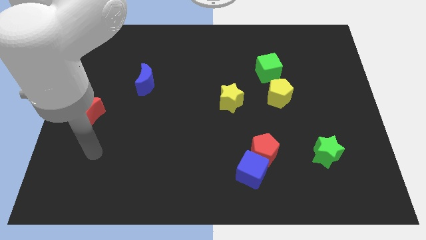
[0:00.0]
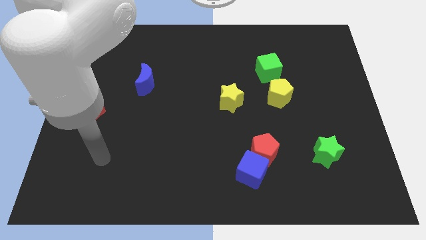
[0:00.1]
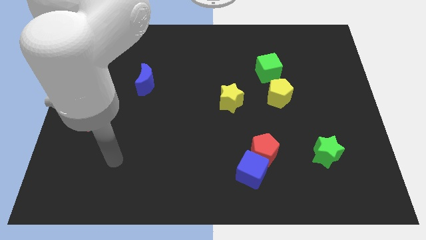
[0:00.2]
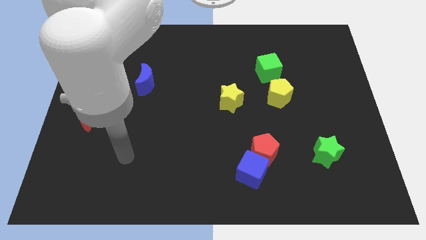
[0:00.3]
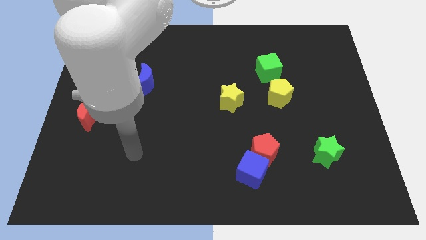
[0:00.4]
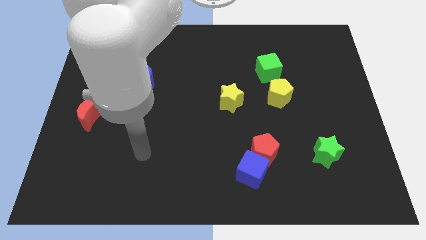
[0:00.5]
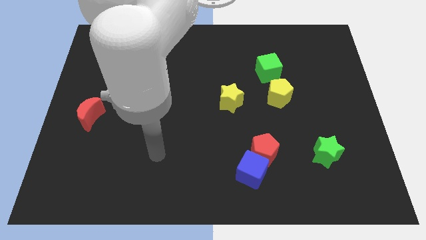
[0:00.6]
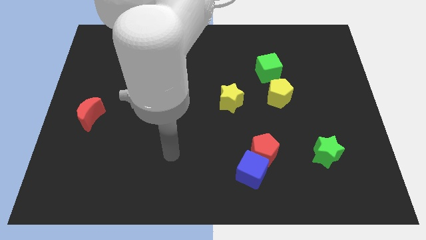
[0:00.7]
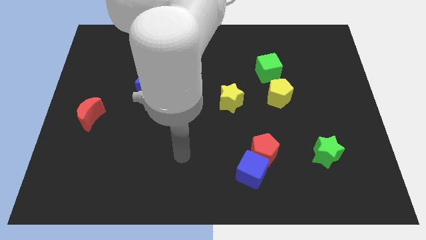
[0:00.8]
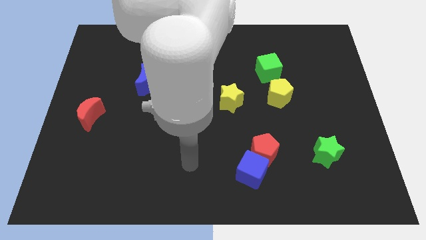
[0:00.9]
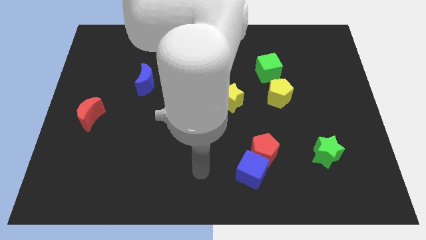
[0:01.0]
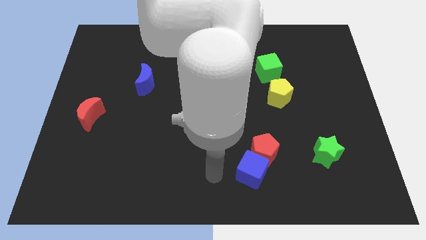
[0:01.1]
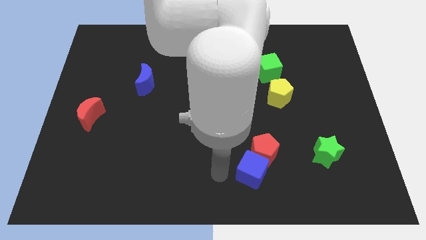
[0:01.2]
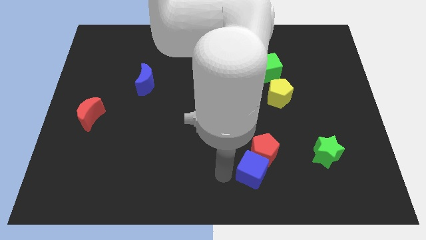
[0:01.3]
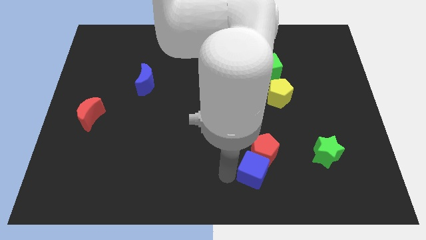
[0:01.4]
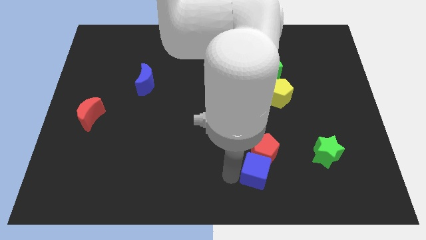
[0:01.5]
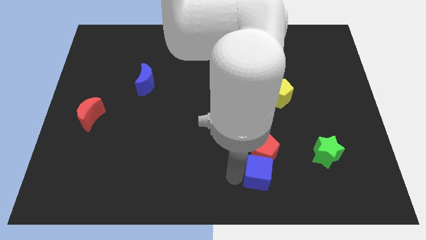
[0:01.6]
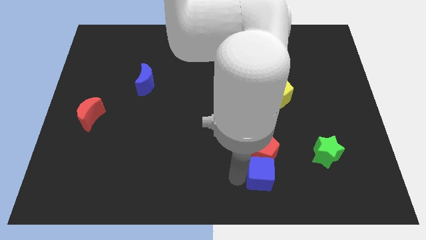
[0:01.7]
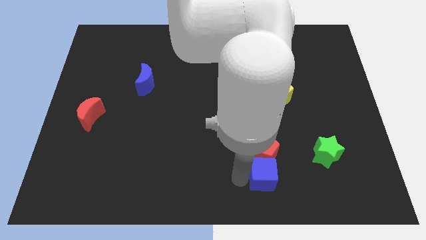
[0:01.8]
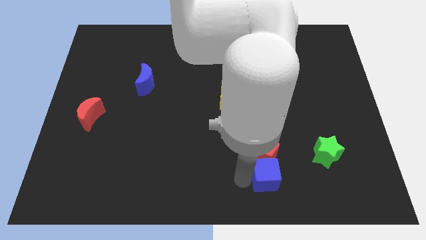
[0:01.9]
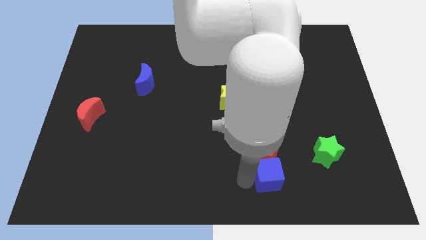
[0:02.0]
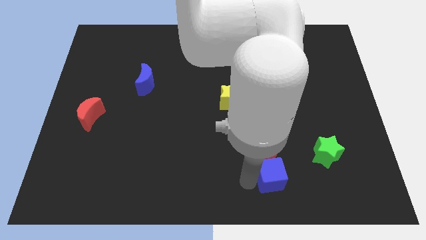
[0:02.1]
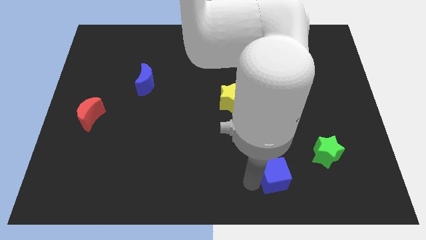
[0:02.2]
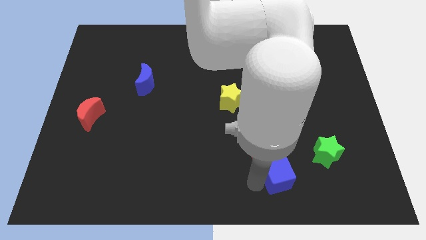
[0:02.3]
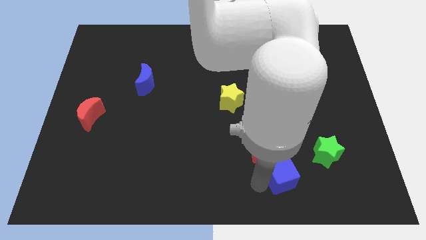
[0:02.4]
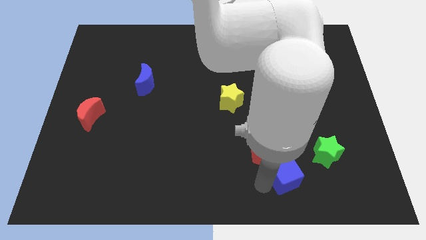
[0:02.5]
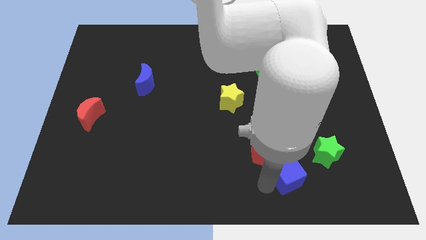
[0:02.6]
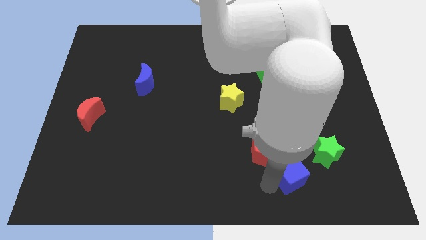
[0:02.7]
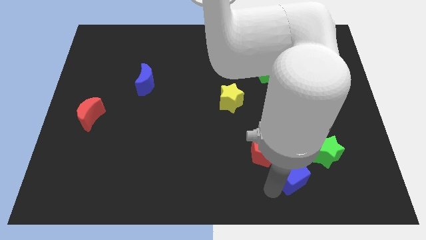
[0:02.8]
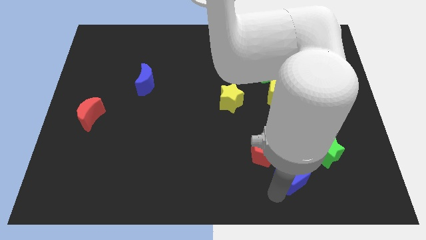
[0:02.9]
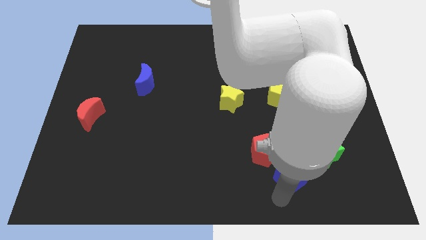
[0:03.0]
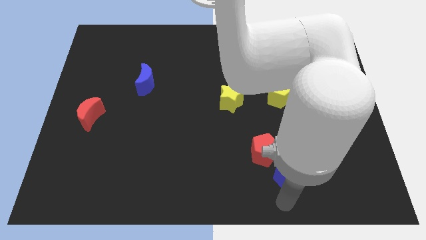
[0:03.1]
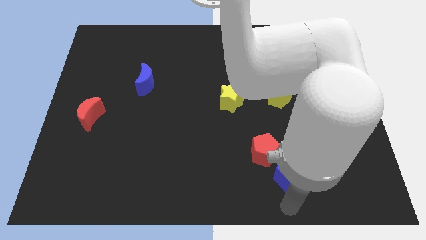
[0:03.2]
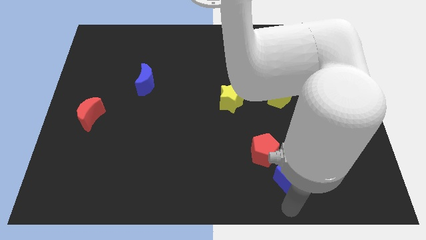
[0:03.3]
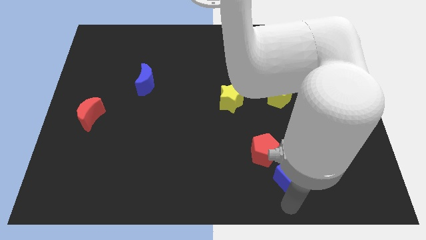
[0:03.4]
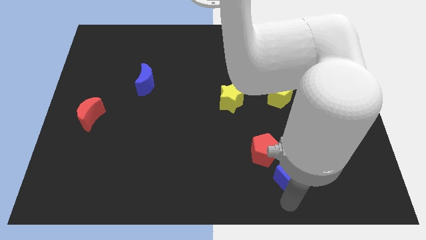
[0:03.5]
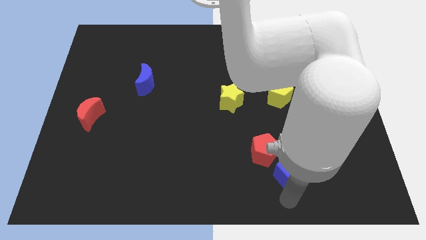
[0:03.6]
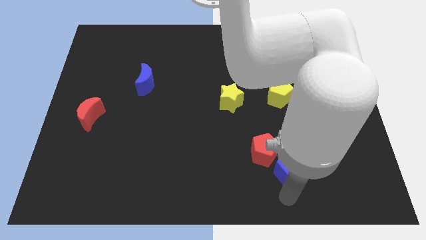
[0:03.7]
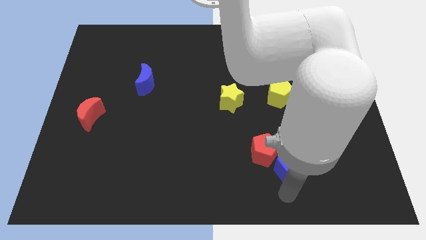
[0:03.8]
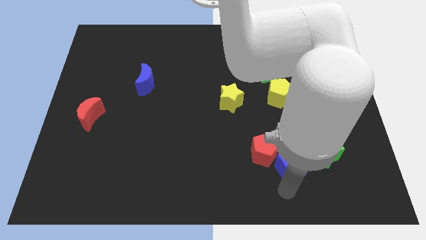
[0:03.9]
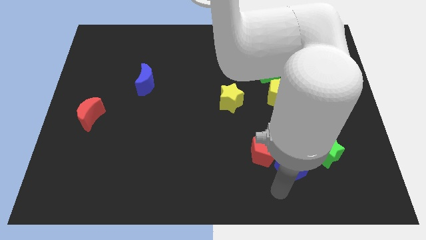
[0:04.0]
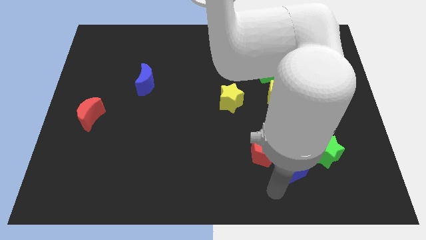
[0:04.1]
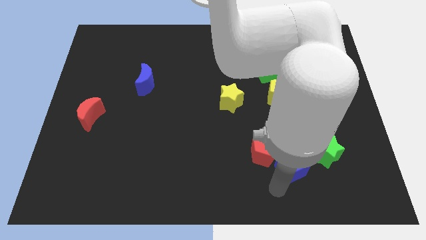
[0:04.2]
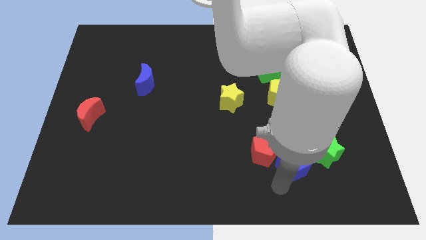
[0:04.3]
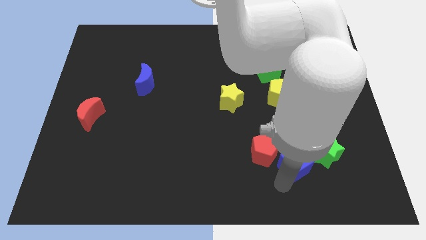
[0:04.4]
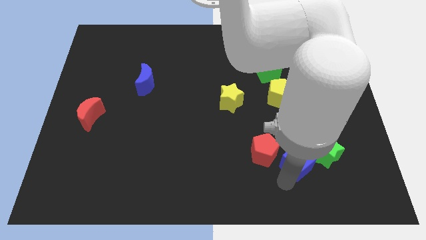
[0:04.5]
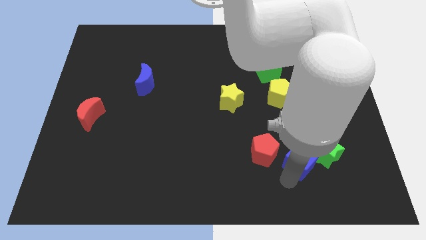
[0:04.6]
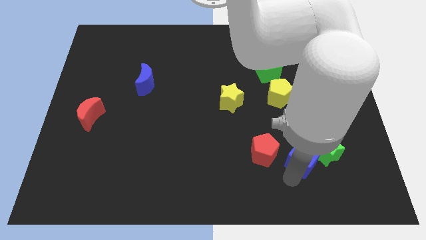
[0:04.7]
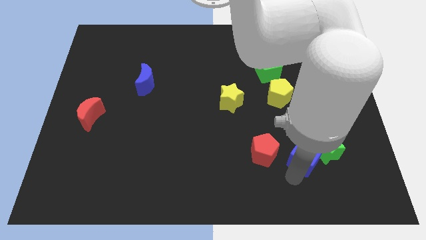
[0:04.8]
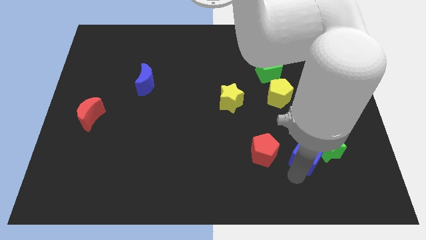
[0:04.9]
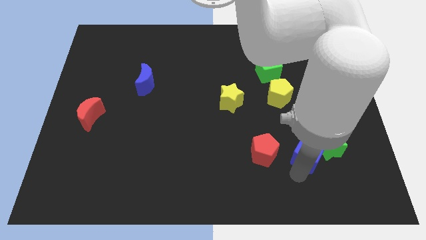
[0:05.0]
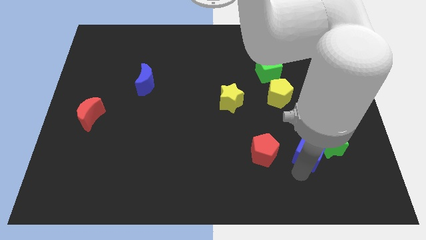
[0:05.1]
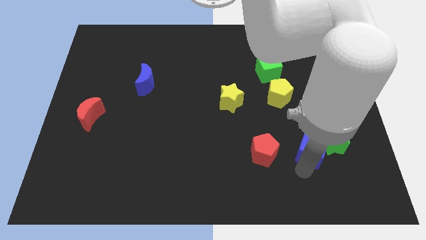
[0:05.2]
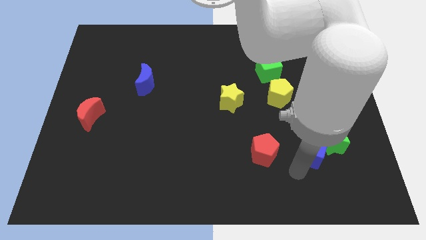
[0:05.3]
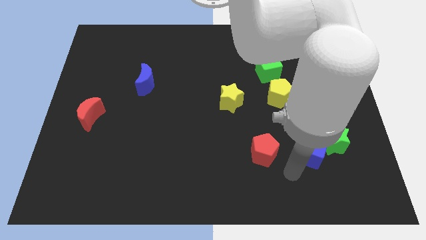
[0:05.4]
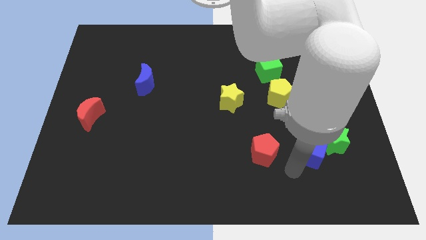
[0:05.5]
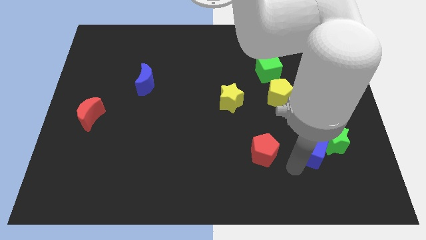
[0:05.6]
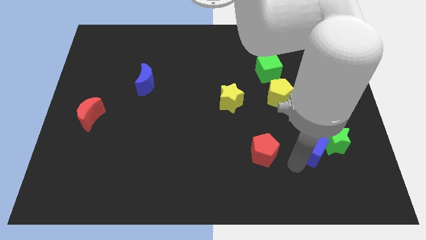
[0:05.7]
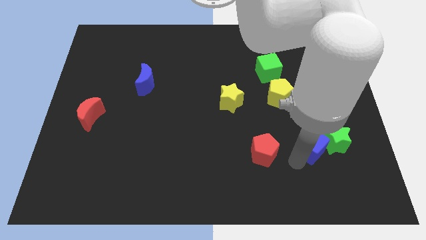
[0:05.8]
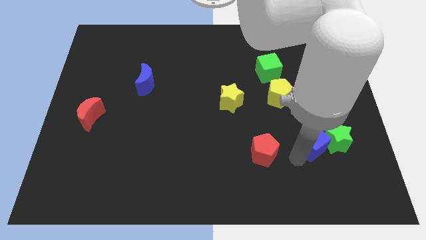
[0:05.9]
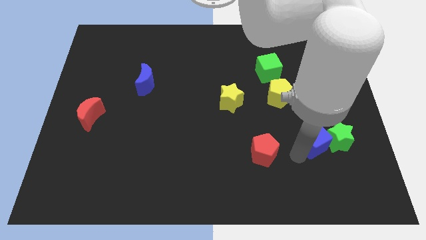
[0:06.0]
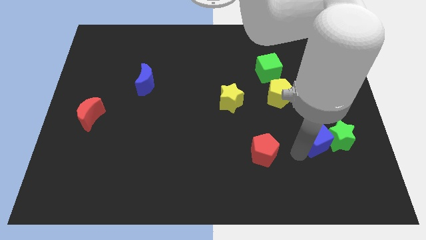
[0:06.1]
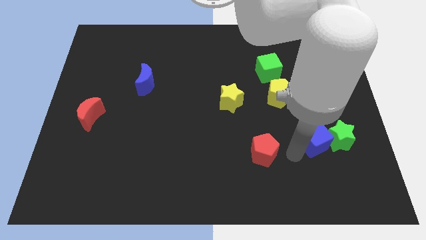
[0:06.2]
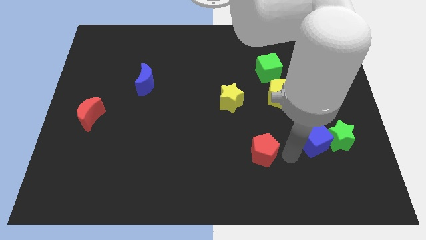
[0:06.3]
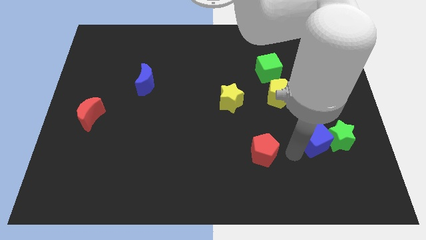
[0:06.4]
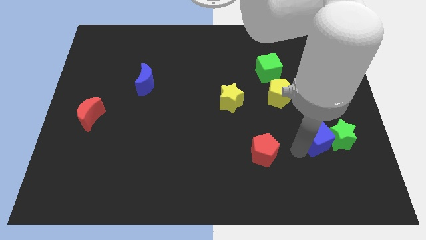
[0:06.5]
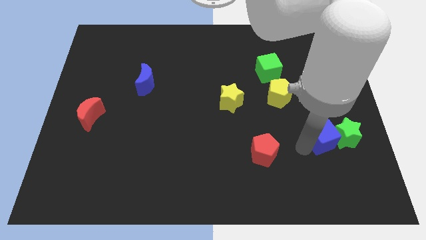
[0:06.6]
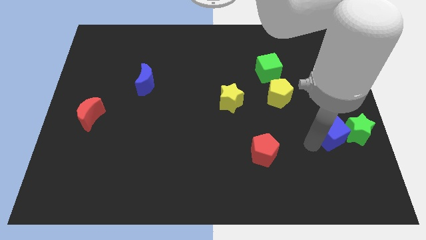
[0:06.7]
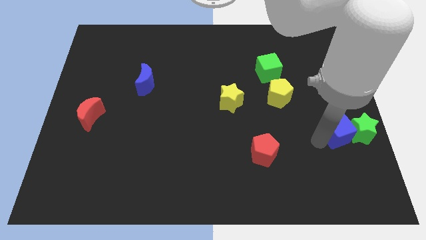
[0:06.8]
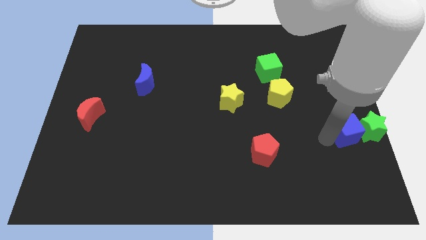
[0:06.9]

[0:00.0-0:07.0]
move the blue cube to the right side of the board
